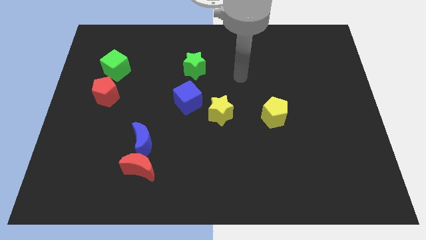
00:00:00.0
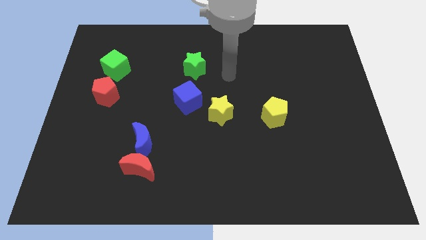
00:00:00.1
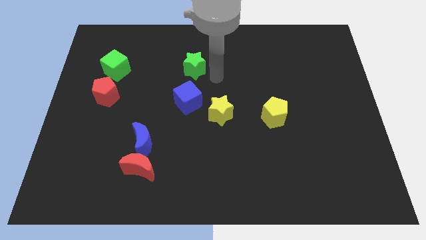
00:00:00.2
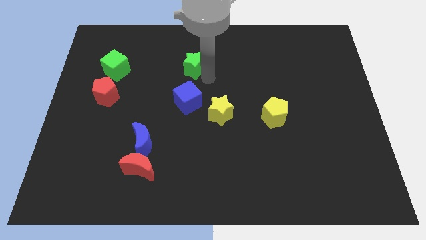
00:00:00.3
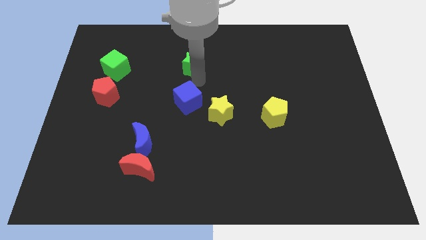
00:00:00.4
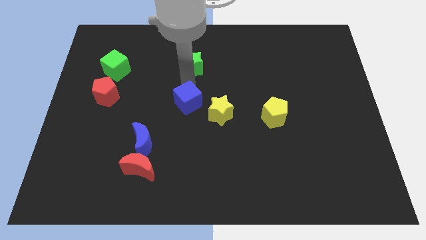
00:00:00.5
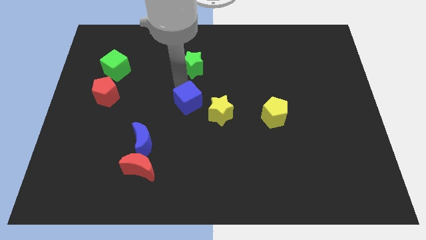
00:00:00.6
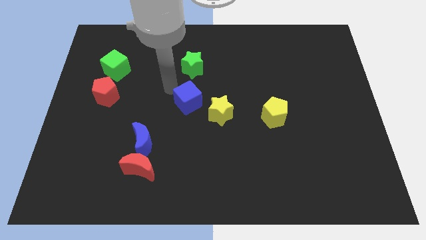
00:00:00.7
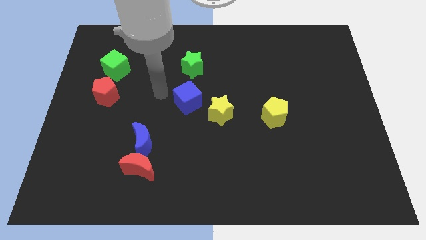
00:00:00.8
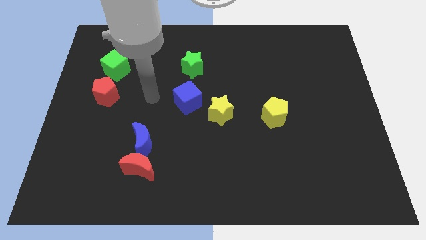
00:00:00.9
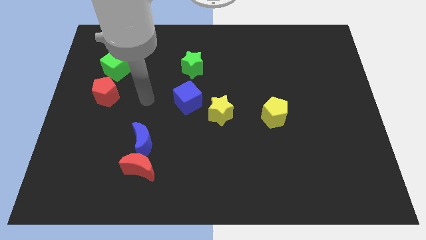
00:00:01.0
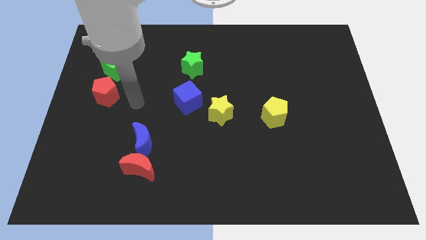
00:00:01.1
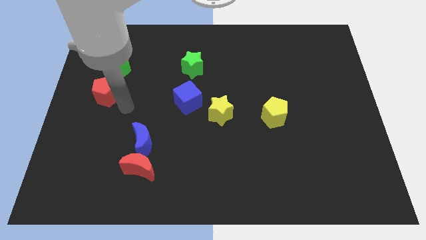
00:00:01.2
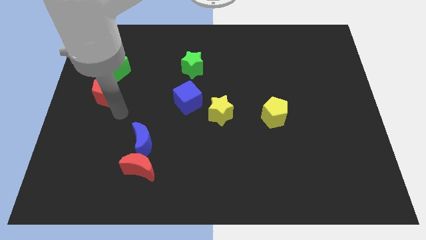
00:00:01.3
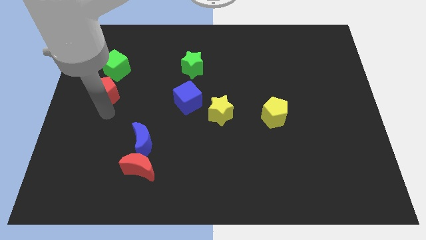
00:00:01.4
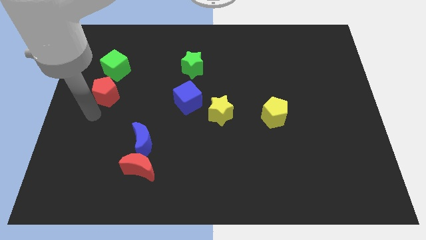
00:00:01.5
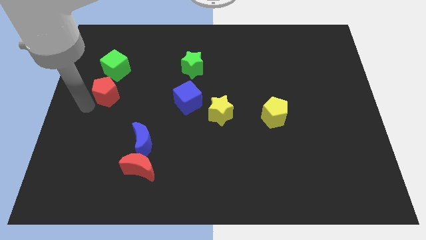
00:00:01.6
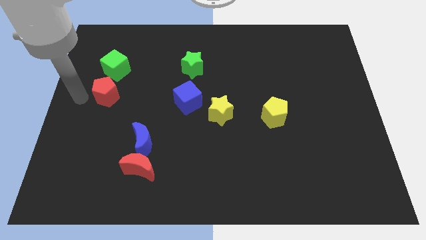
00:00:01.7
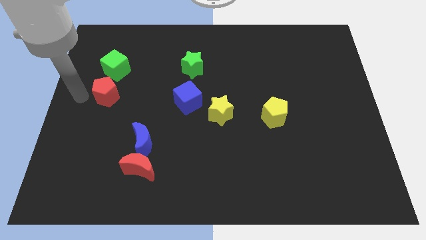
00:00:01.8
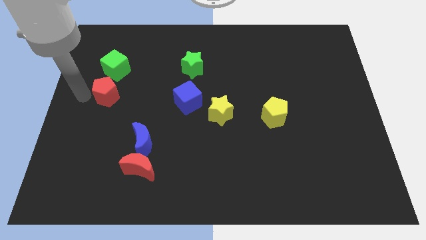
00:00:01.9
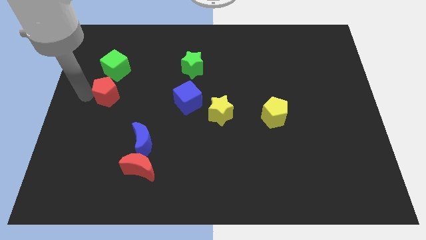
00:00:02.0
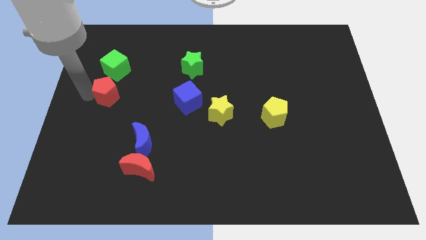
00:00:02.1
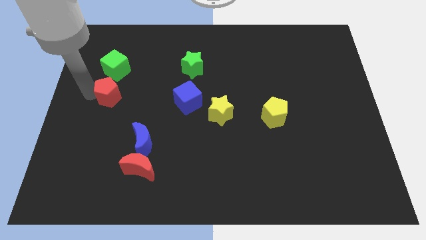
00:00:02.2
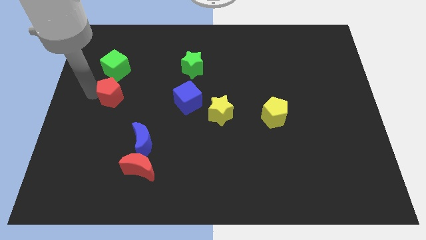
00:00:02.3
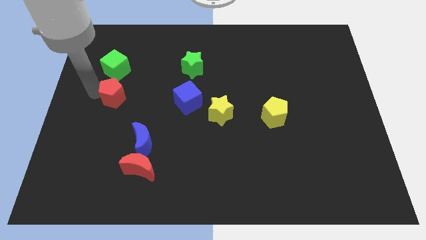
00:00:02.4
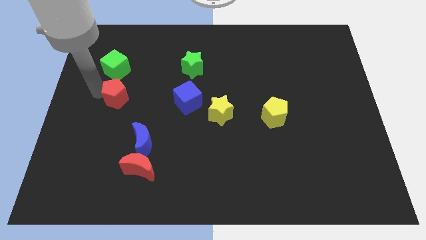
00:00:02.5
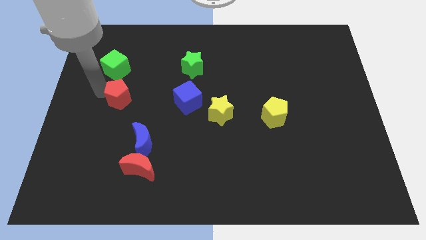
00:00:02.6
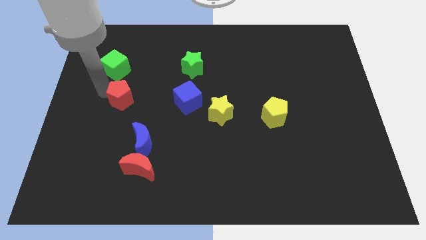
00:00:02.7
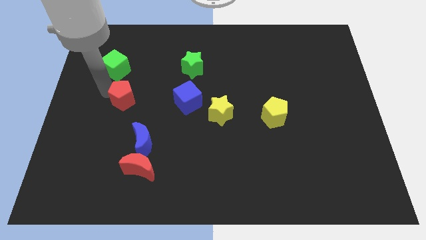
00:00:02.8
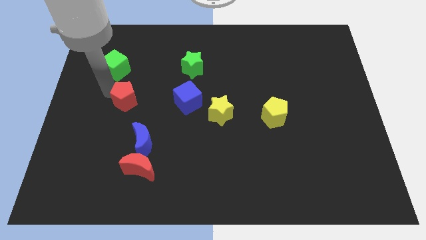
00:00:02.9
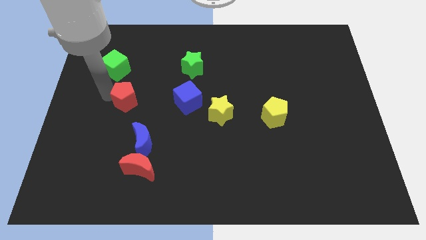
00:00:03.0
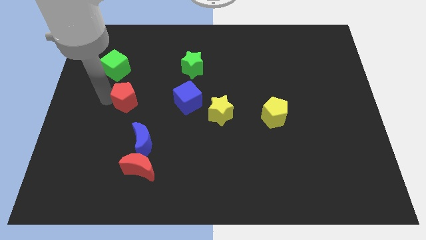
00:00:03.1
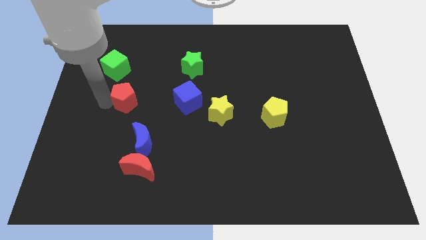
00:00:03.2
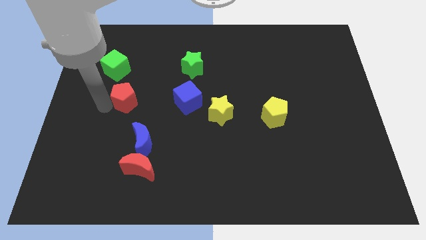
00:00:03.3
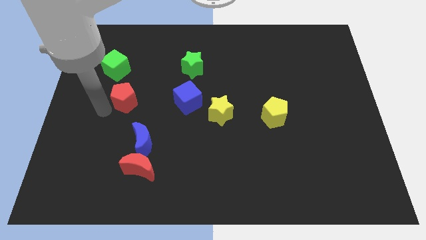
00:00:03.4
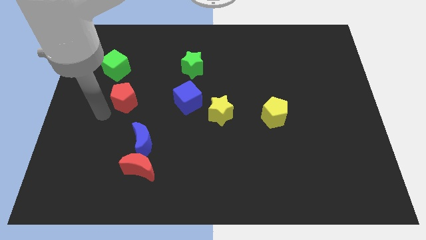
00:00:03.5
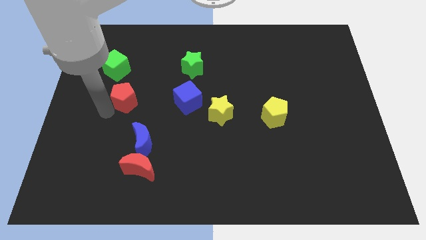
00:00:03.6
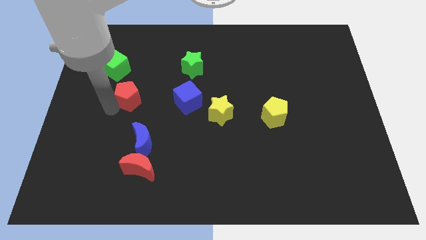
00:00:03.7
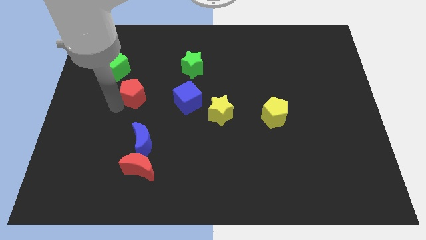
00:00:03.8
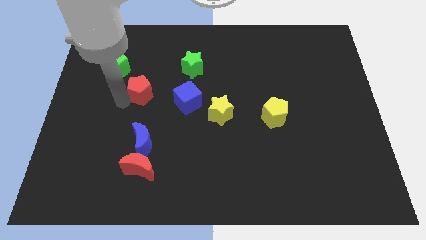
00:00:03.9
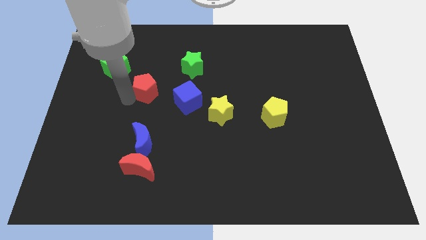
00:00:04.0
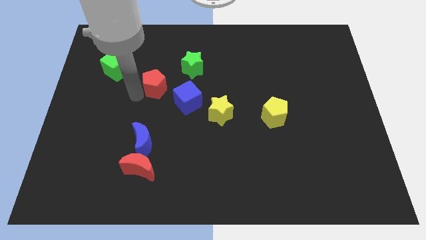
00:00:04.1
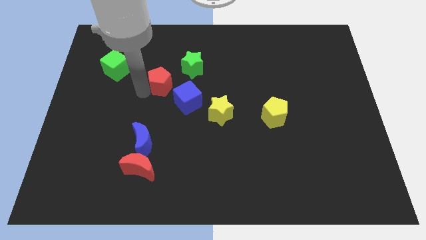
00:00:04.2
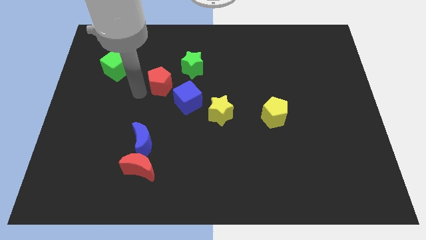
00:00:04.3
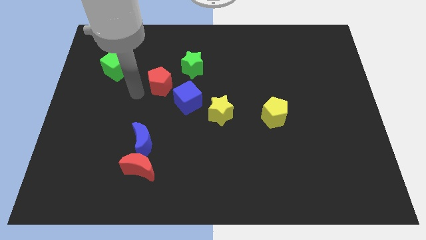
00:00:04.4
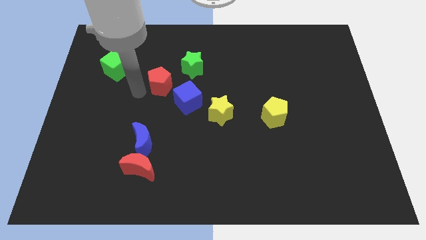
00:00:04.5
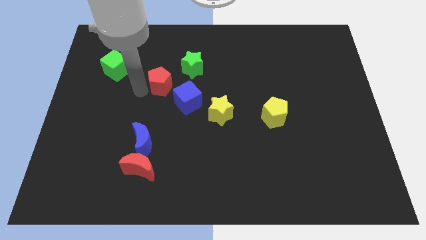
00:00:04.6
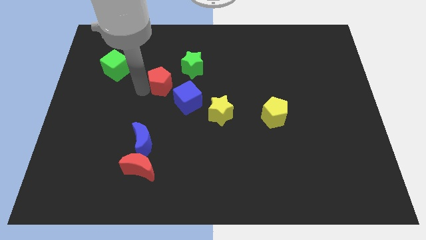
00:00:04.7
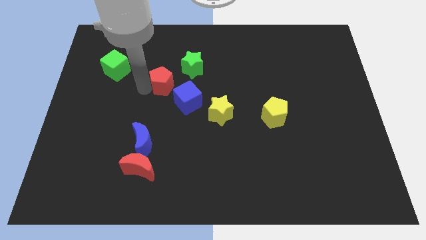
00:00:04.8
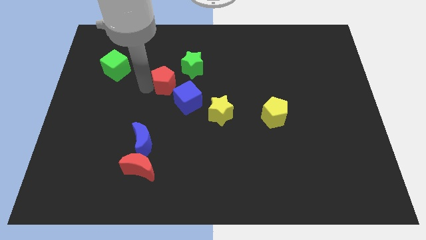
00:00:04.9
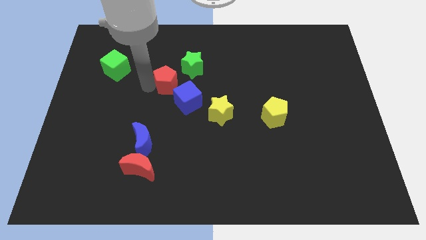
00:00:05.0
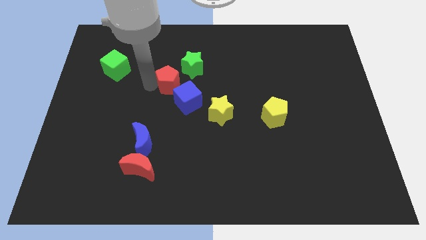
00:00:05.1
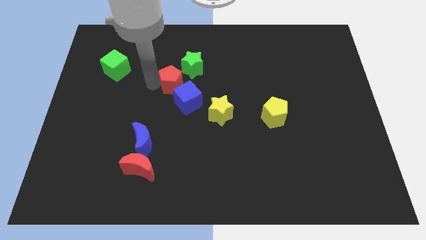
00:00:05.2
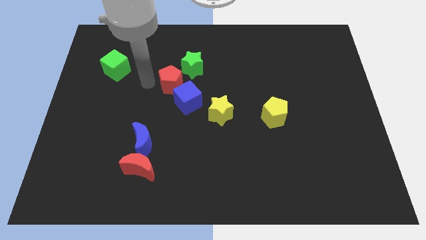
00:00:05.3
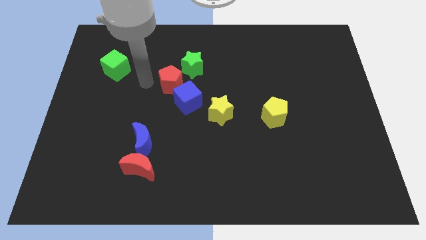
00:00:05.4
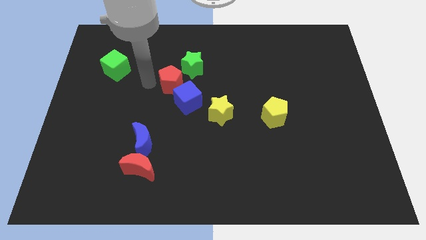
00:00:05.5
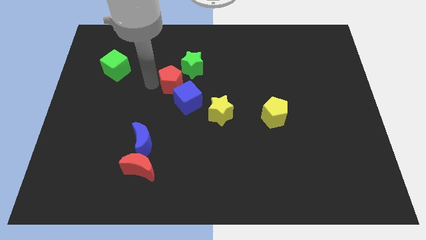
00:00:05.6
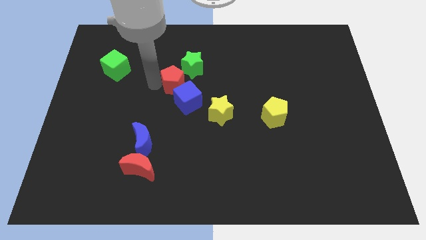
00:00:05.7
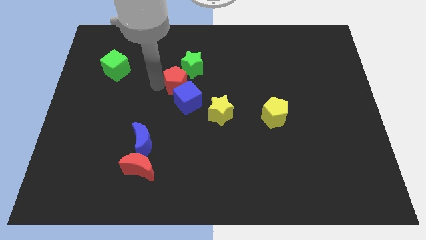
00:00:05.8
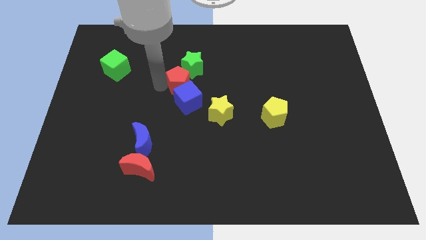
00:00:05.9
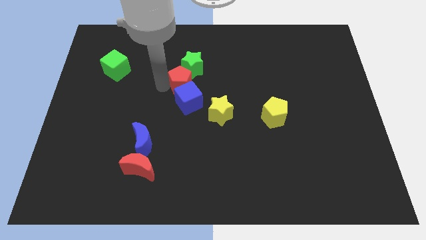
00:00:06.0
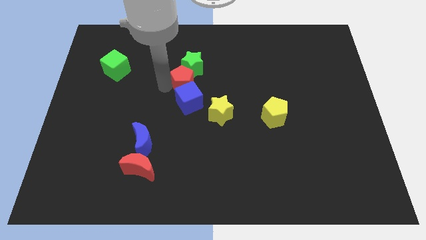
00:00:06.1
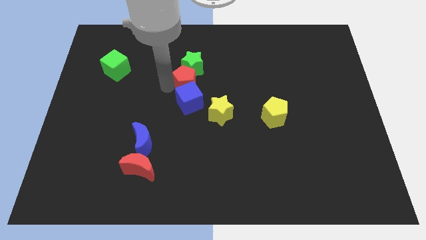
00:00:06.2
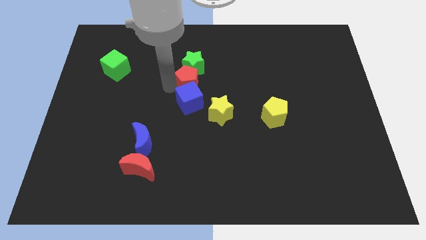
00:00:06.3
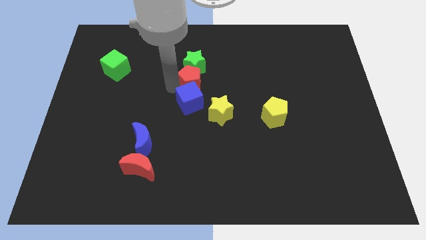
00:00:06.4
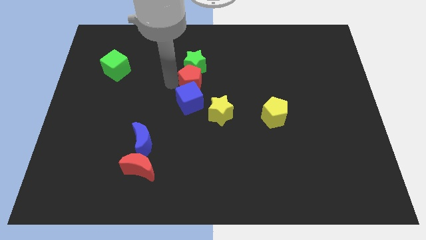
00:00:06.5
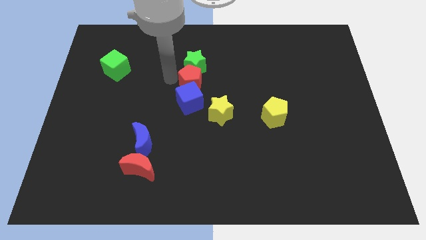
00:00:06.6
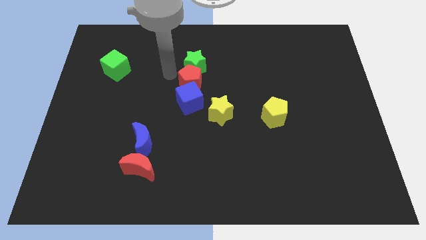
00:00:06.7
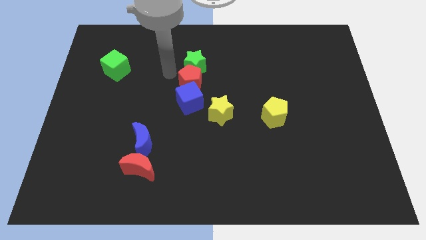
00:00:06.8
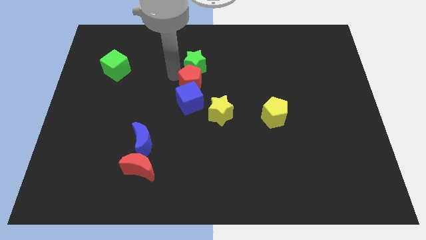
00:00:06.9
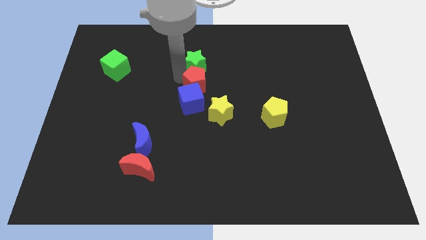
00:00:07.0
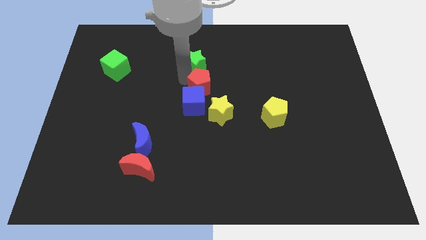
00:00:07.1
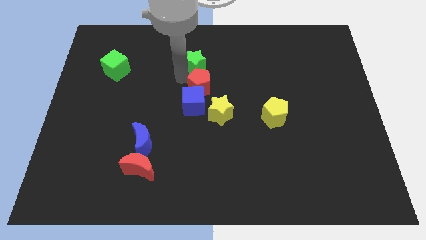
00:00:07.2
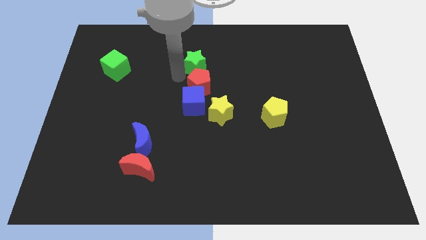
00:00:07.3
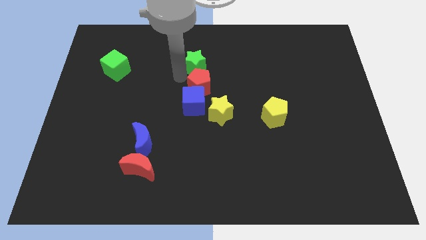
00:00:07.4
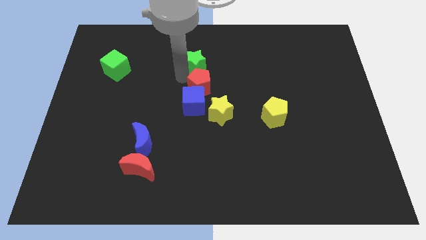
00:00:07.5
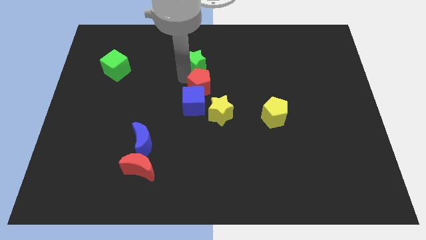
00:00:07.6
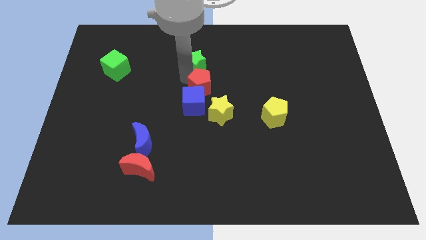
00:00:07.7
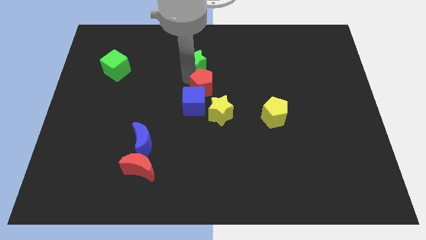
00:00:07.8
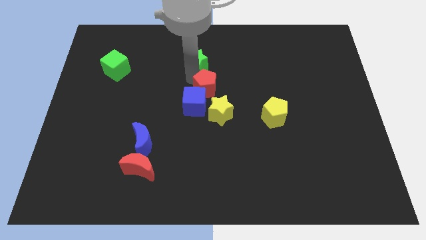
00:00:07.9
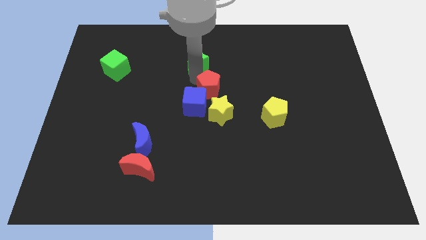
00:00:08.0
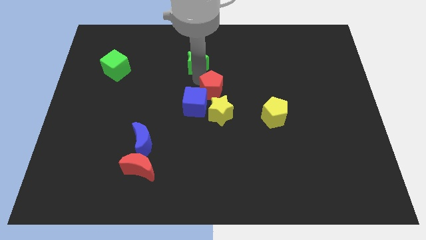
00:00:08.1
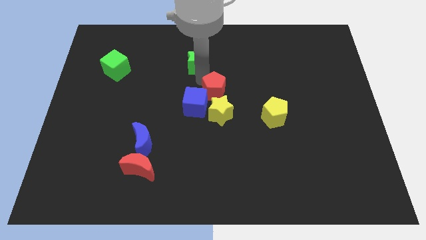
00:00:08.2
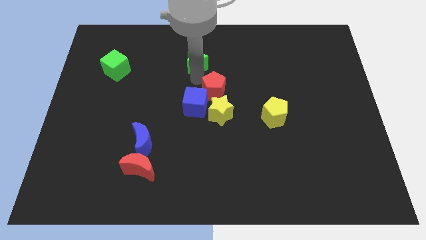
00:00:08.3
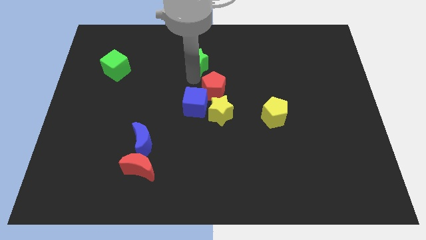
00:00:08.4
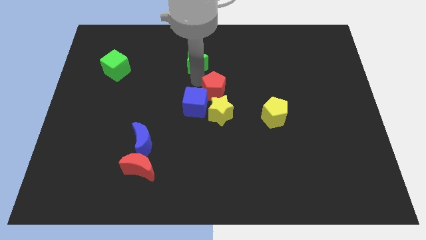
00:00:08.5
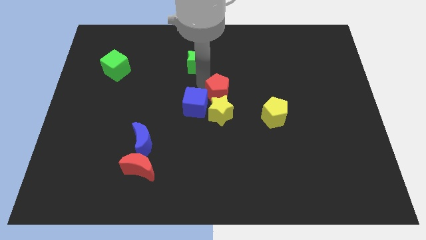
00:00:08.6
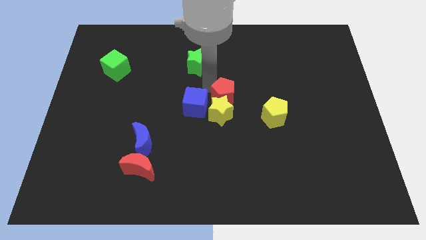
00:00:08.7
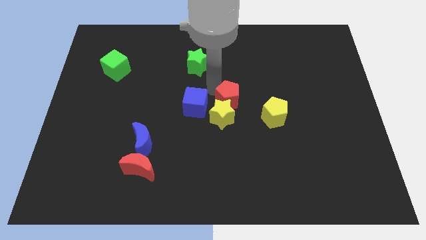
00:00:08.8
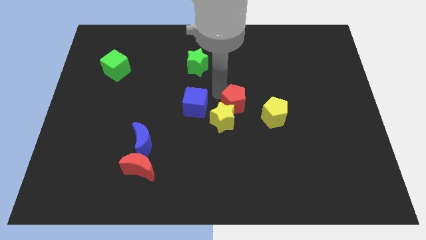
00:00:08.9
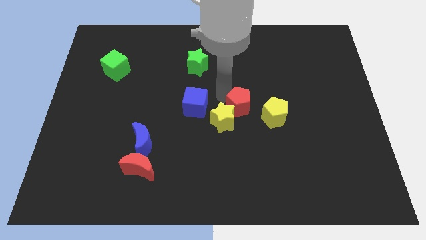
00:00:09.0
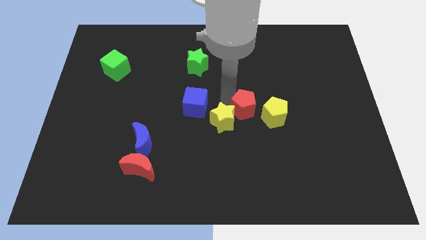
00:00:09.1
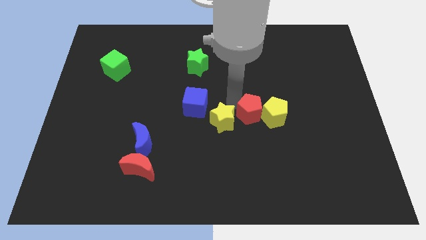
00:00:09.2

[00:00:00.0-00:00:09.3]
move the red pentagon towards the yellow pentagon
